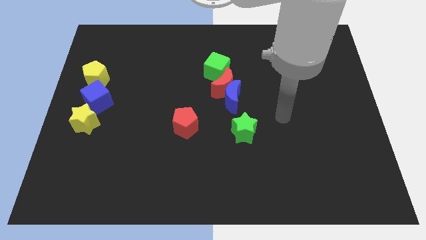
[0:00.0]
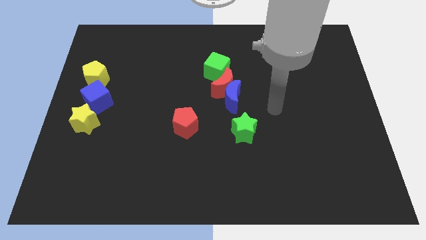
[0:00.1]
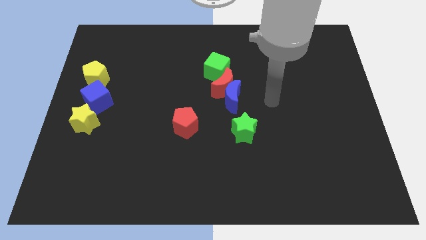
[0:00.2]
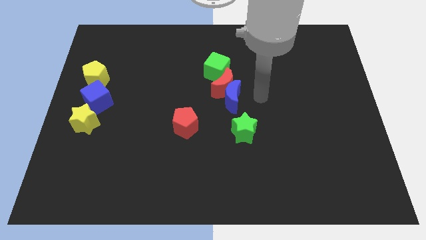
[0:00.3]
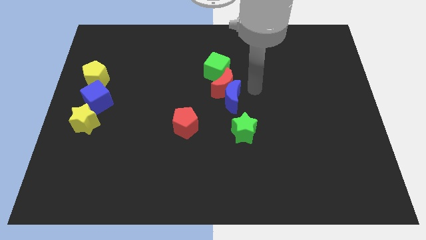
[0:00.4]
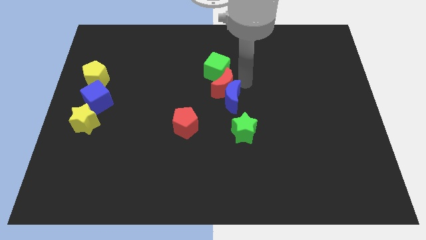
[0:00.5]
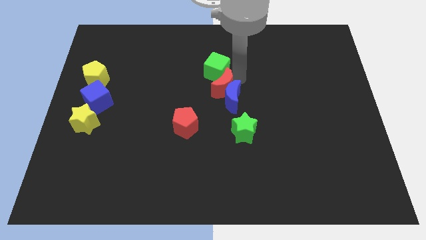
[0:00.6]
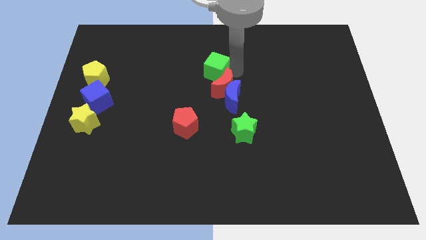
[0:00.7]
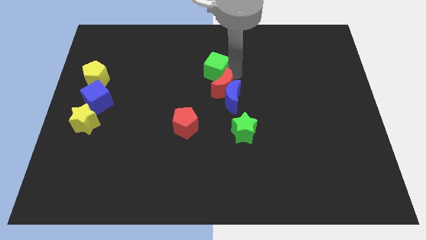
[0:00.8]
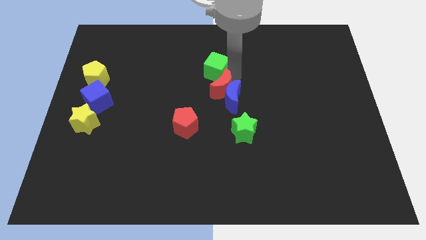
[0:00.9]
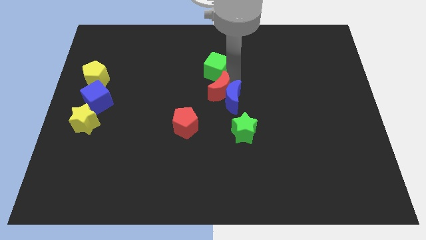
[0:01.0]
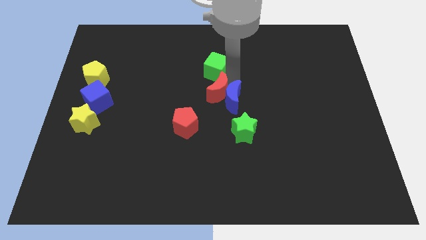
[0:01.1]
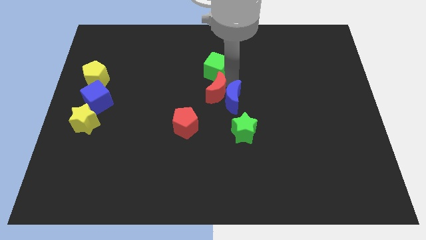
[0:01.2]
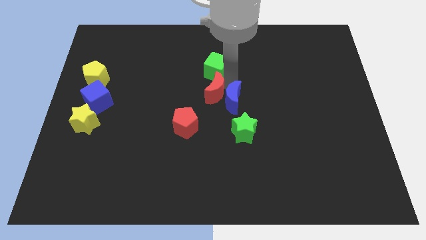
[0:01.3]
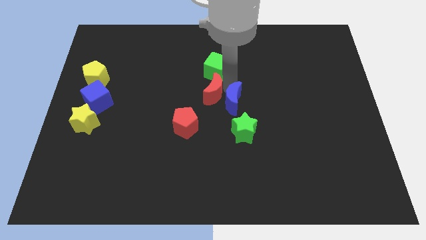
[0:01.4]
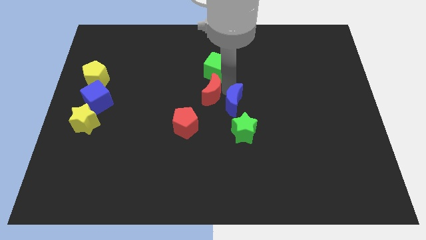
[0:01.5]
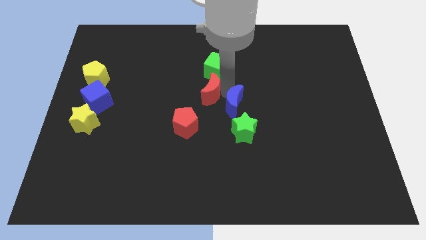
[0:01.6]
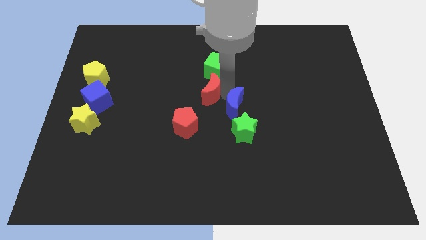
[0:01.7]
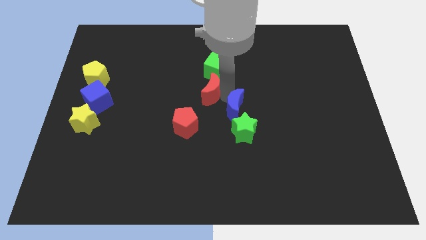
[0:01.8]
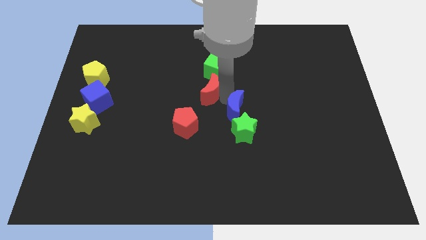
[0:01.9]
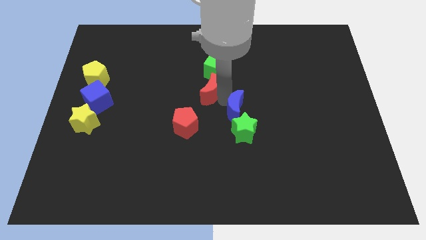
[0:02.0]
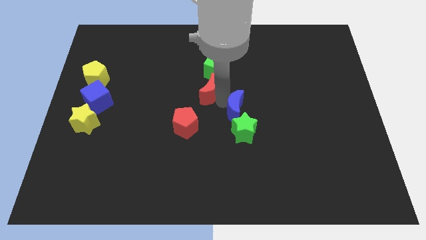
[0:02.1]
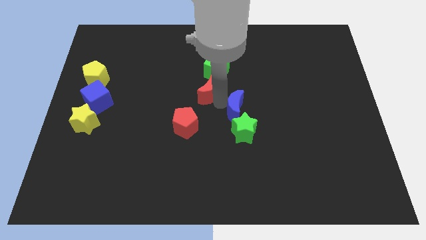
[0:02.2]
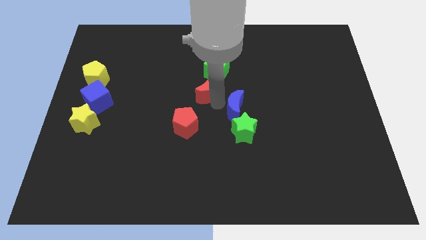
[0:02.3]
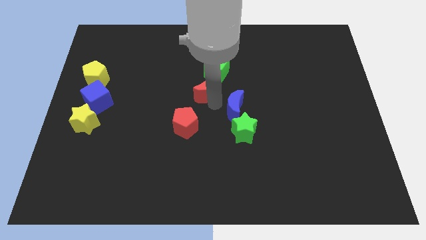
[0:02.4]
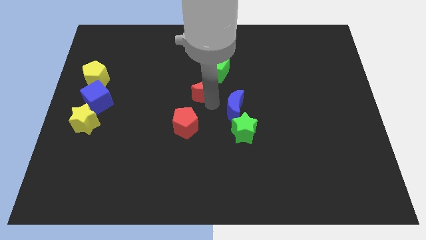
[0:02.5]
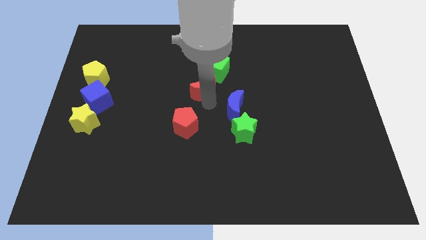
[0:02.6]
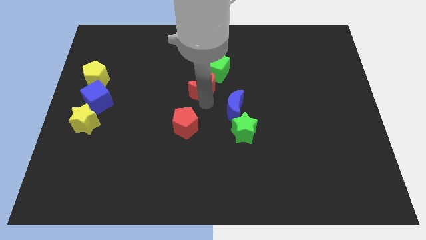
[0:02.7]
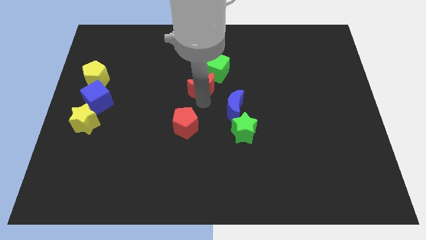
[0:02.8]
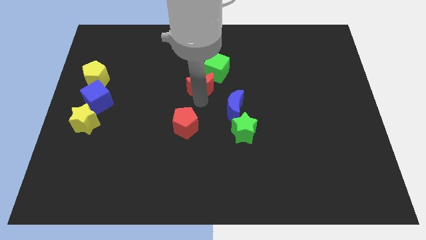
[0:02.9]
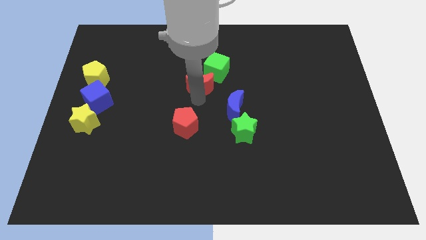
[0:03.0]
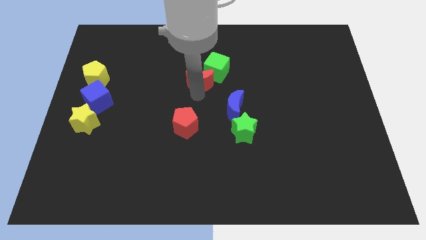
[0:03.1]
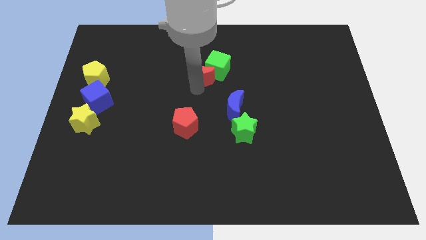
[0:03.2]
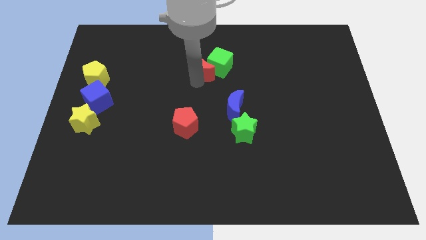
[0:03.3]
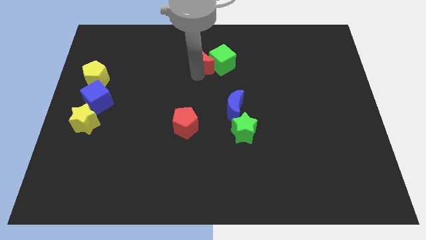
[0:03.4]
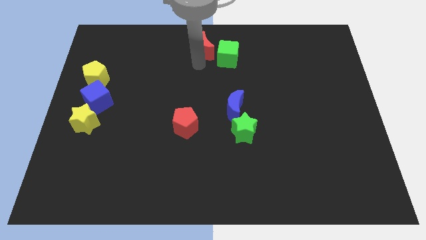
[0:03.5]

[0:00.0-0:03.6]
move the red moon away from the blue moon and green cube

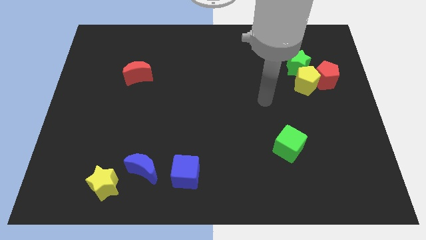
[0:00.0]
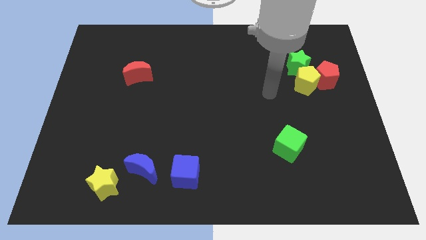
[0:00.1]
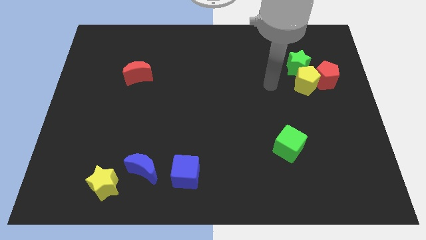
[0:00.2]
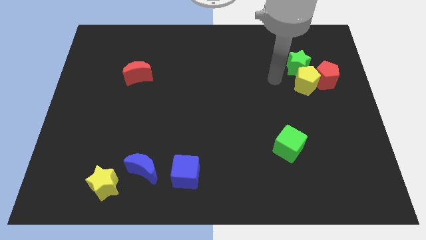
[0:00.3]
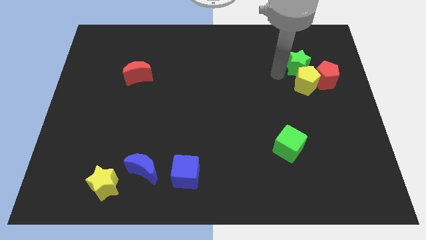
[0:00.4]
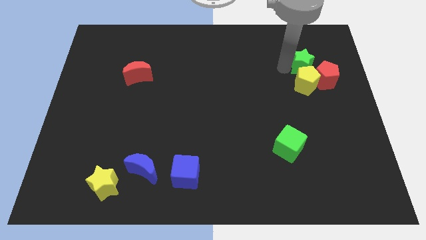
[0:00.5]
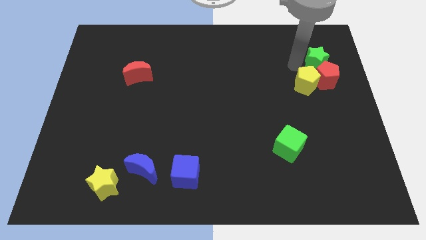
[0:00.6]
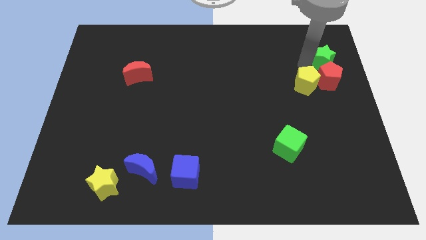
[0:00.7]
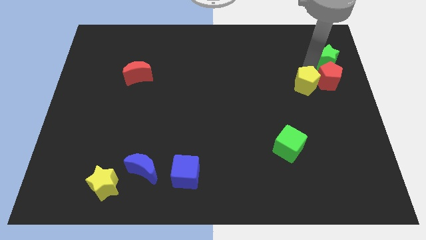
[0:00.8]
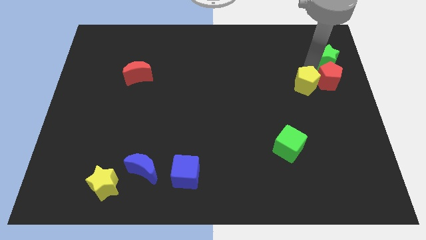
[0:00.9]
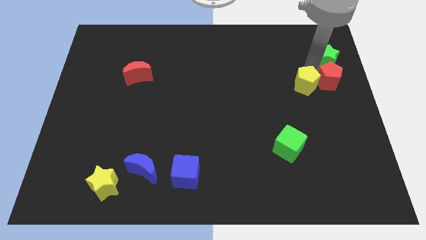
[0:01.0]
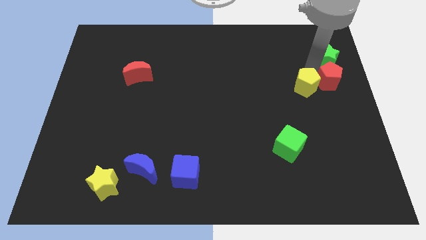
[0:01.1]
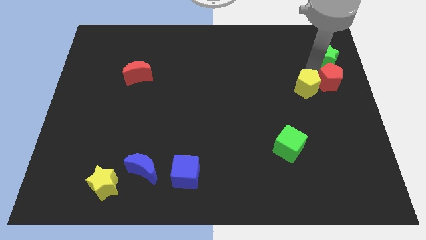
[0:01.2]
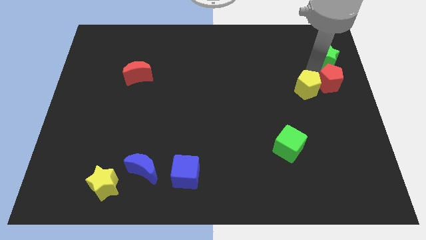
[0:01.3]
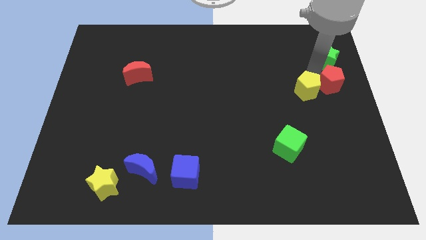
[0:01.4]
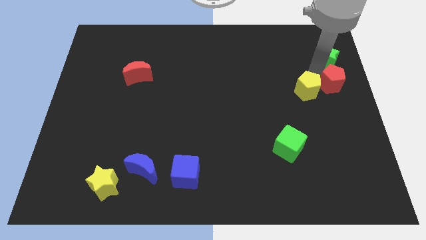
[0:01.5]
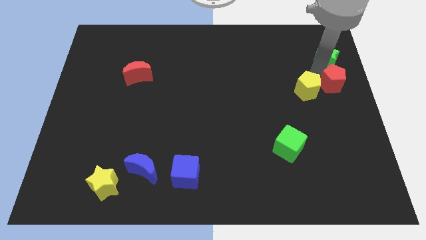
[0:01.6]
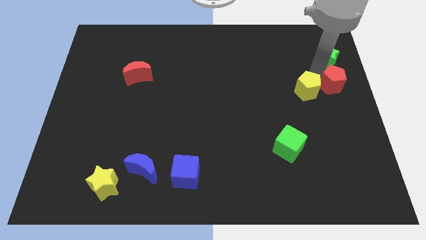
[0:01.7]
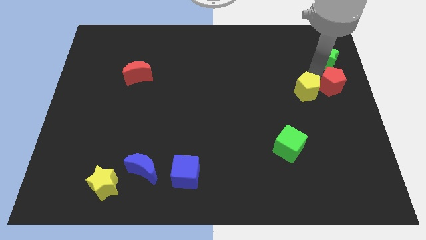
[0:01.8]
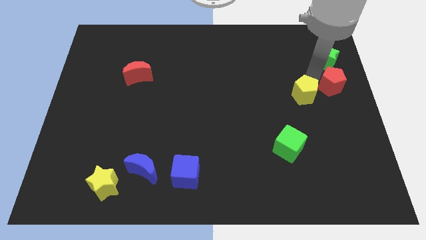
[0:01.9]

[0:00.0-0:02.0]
move the yellow pentagon away from the red pentagon and green star

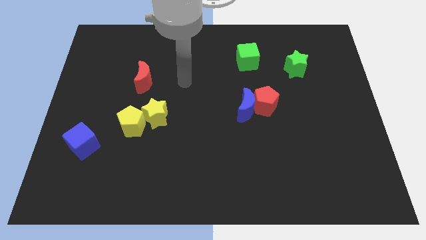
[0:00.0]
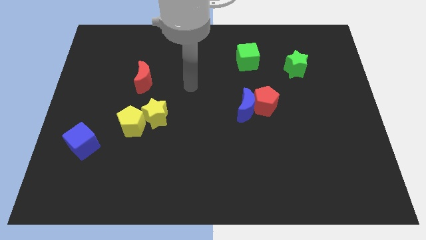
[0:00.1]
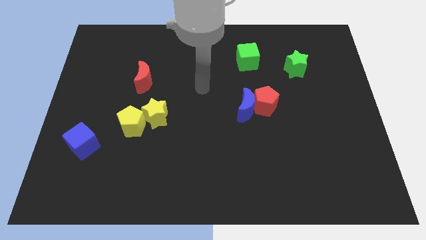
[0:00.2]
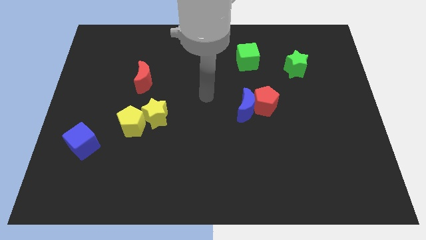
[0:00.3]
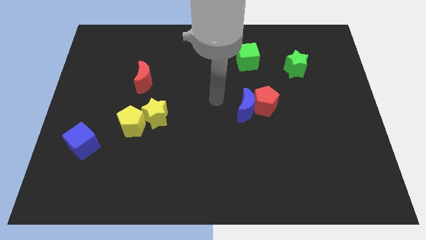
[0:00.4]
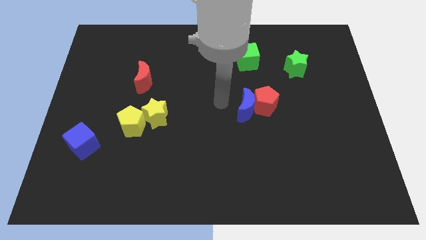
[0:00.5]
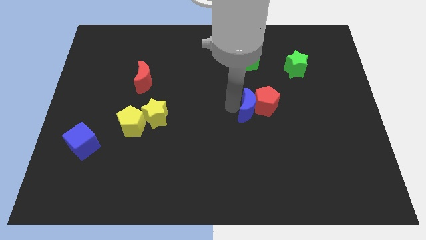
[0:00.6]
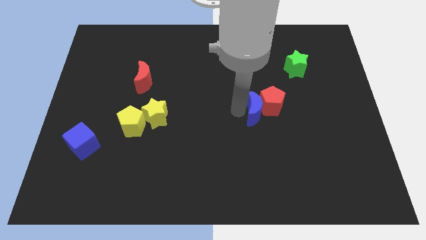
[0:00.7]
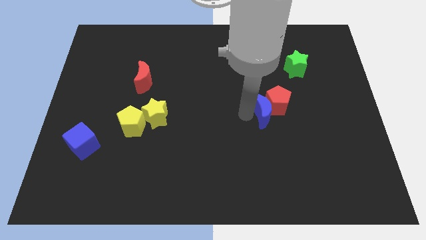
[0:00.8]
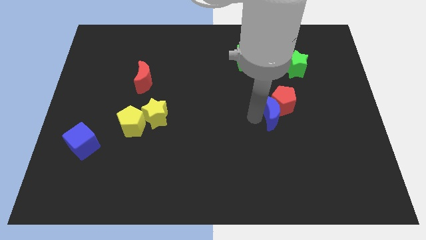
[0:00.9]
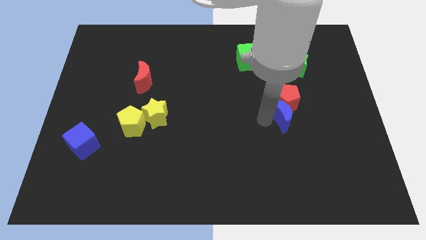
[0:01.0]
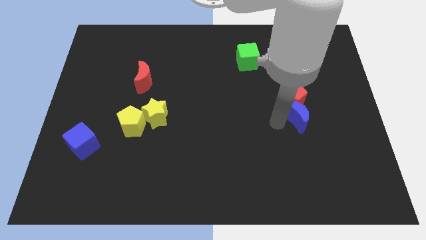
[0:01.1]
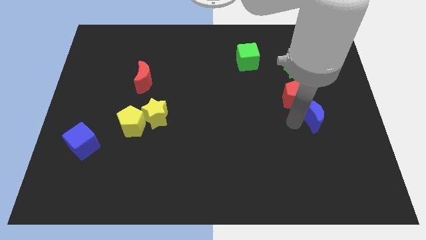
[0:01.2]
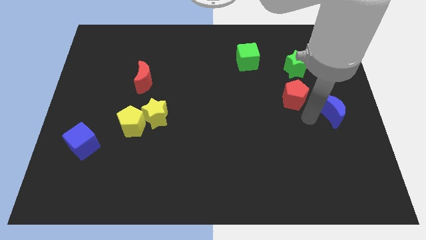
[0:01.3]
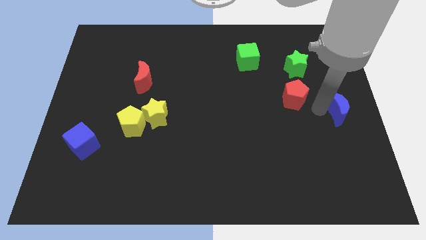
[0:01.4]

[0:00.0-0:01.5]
pull the red pentagon apart from the blue moon

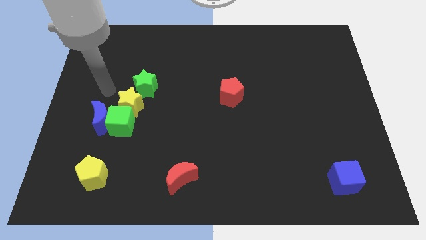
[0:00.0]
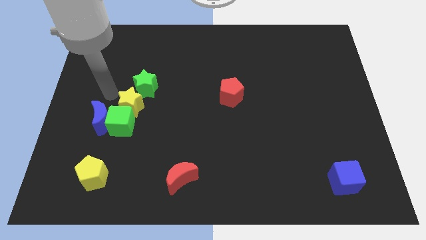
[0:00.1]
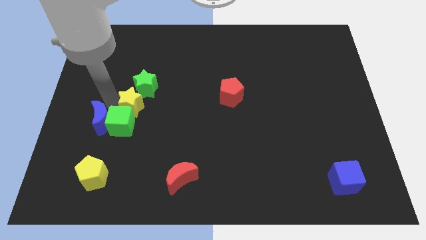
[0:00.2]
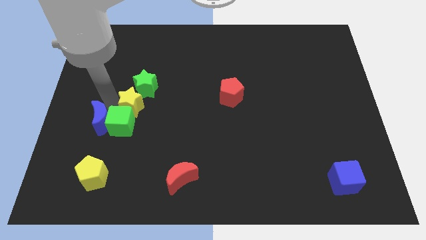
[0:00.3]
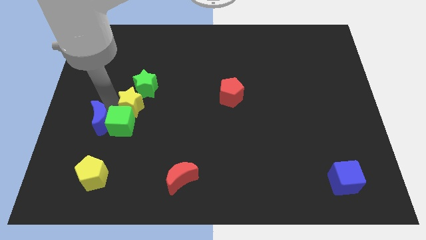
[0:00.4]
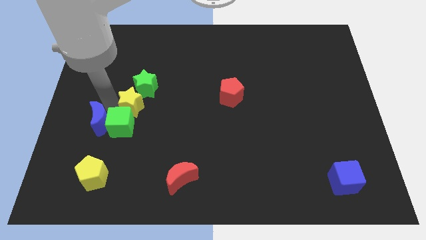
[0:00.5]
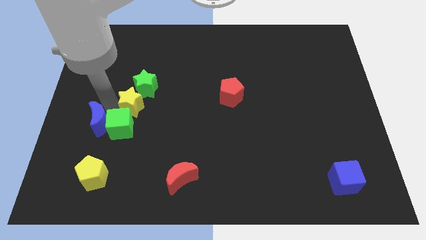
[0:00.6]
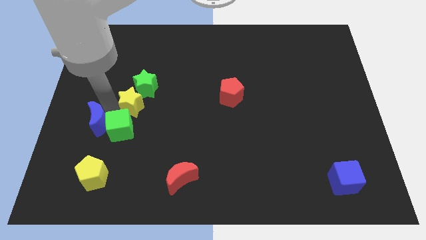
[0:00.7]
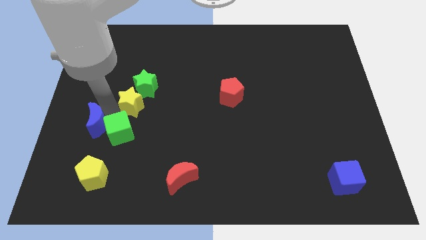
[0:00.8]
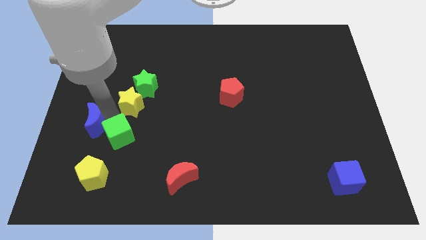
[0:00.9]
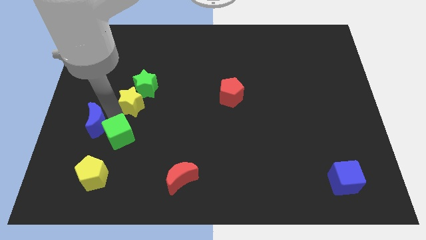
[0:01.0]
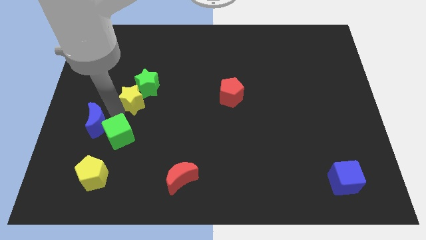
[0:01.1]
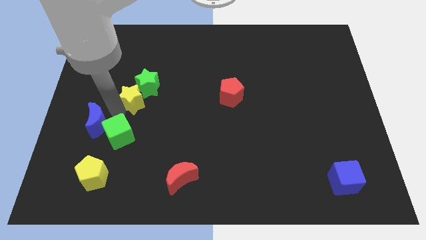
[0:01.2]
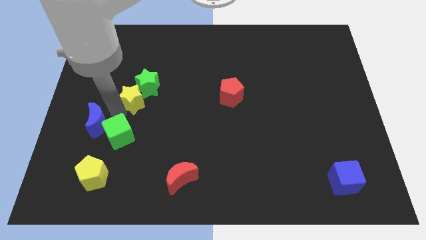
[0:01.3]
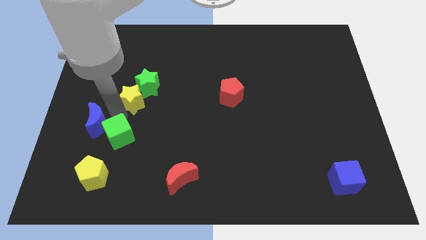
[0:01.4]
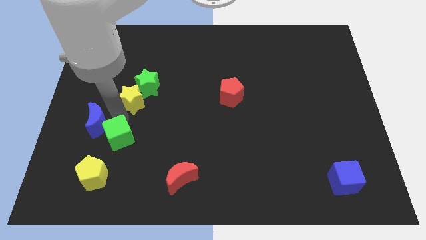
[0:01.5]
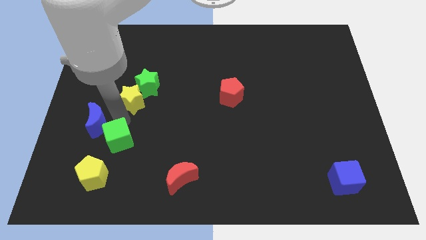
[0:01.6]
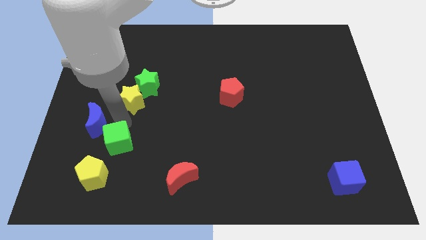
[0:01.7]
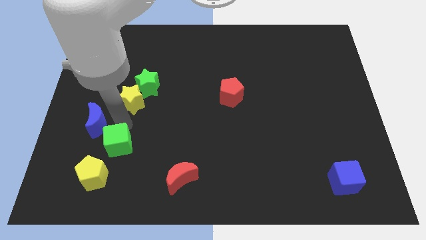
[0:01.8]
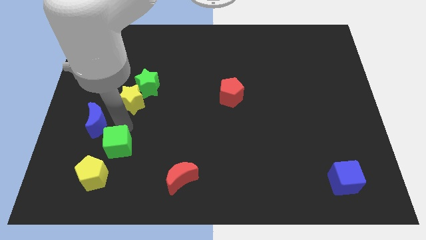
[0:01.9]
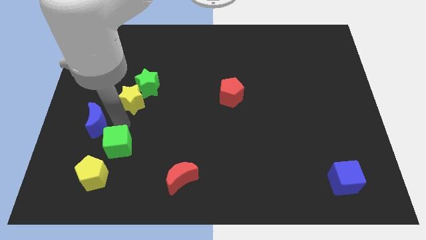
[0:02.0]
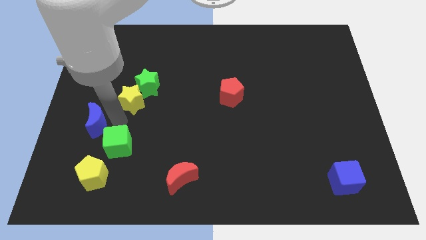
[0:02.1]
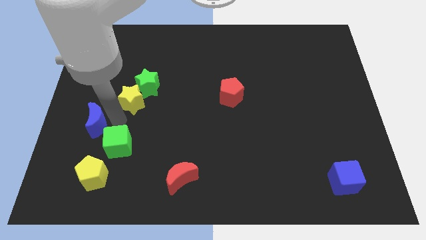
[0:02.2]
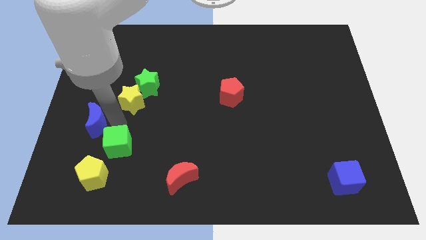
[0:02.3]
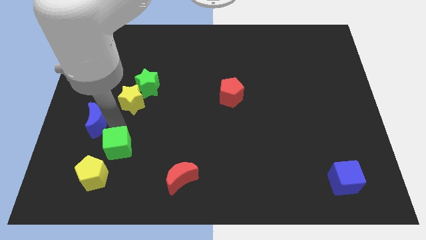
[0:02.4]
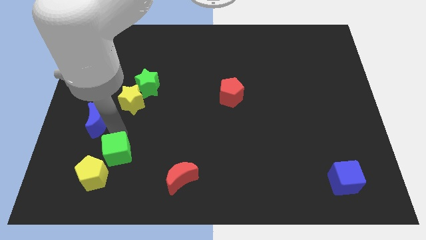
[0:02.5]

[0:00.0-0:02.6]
move the green cube away from the blue moon and yellow star
